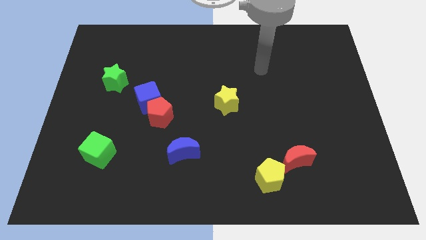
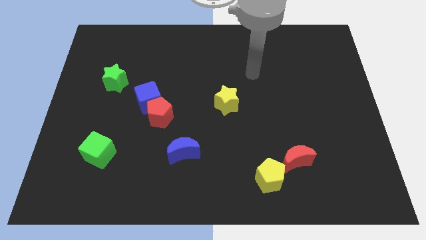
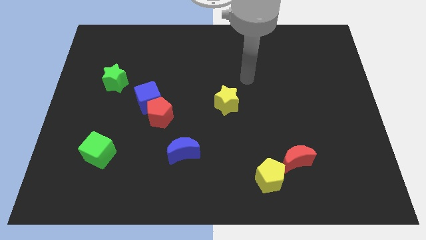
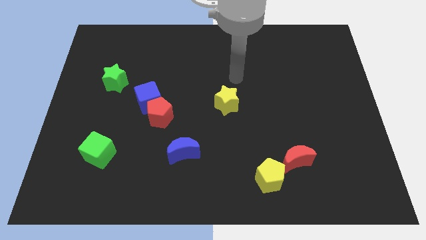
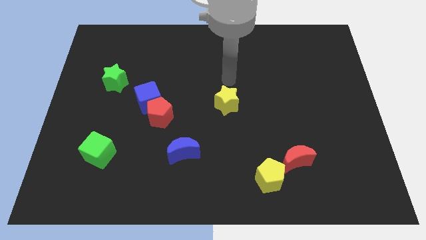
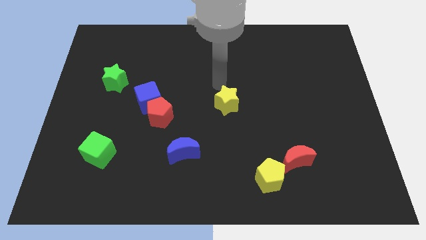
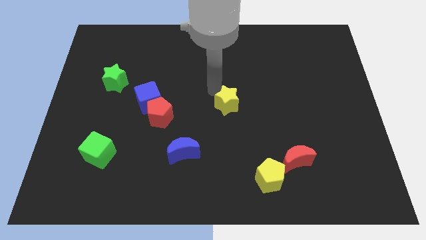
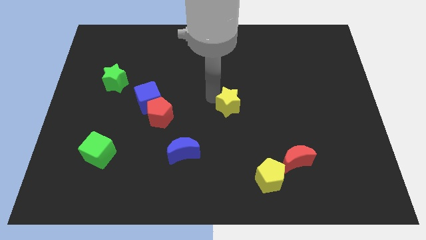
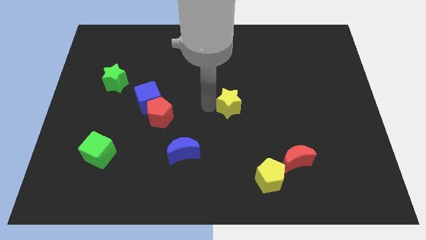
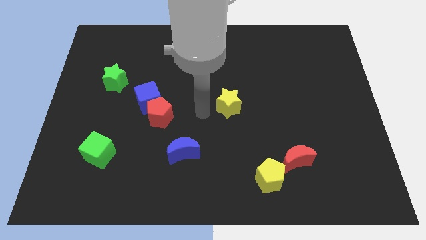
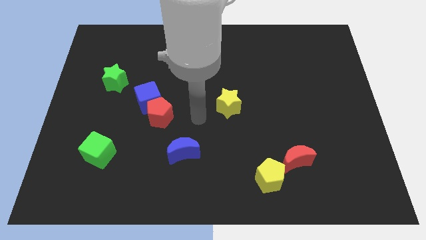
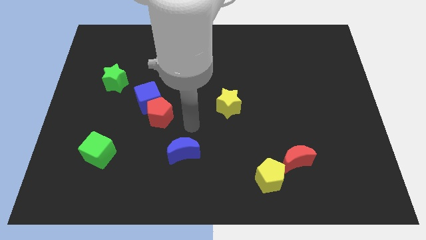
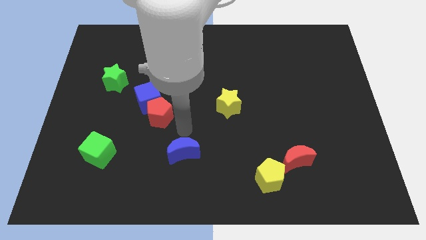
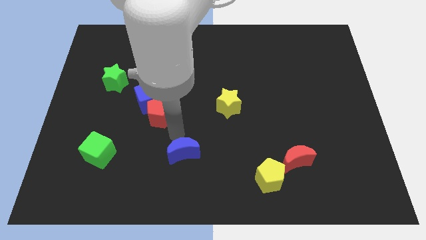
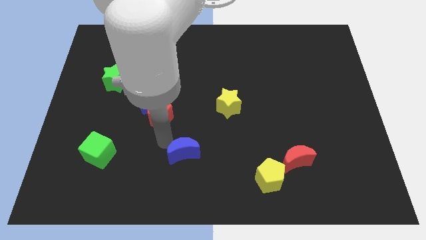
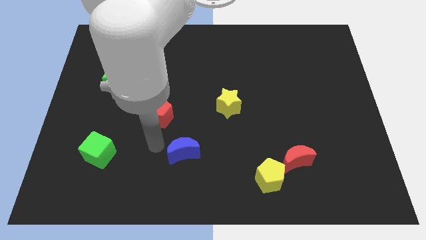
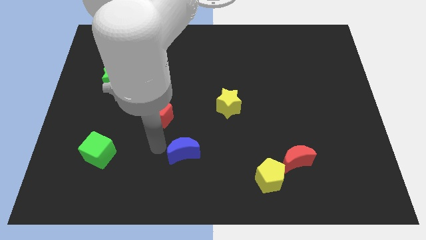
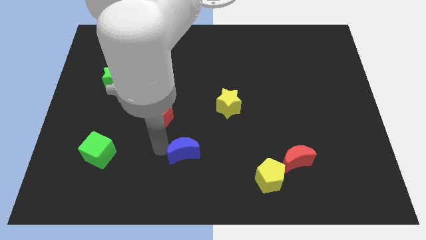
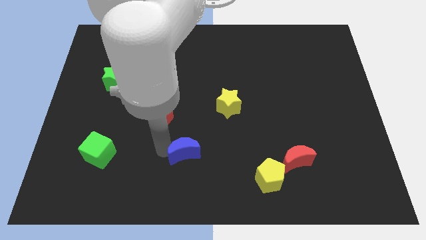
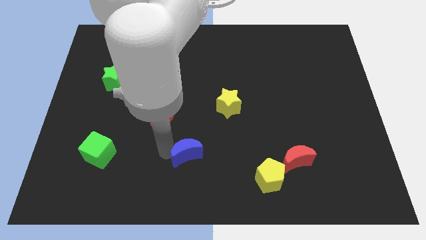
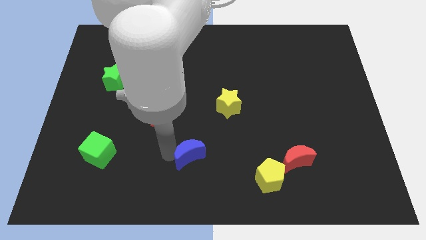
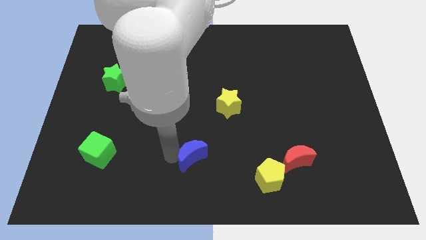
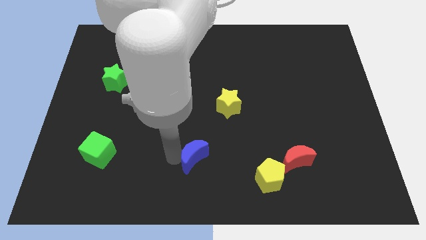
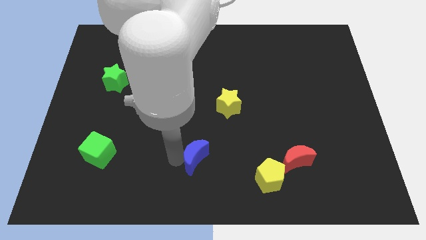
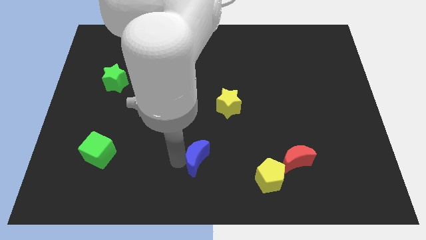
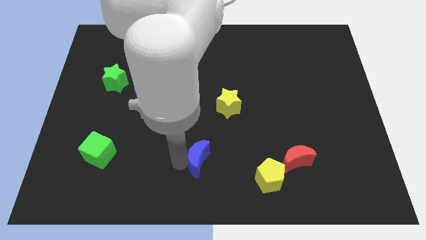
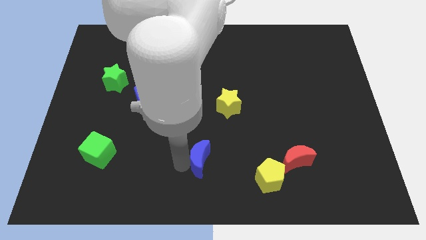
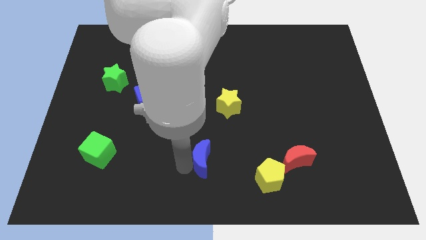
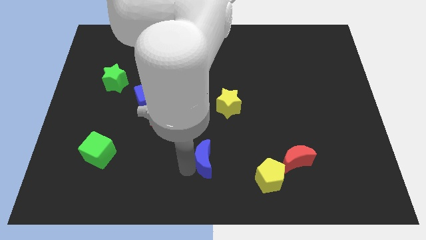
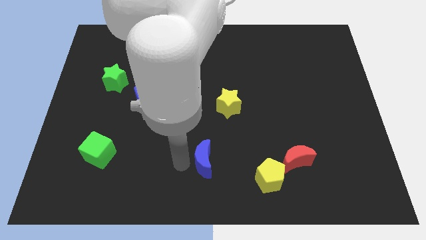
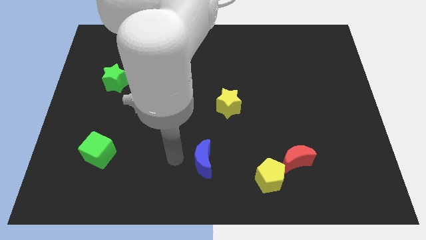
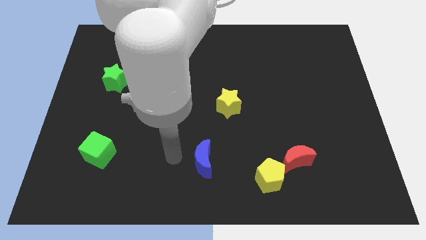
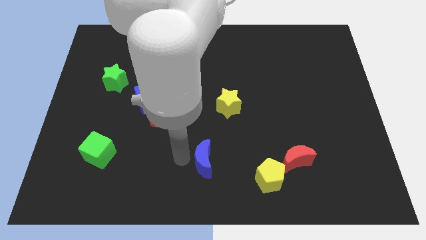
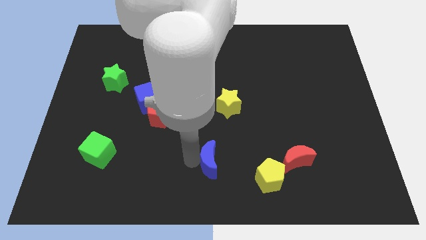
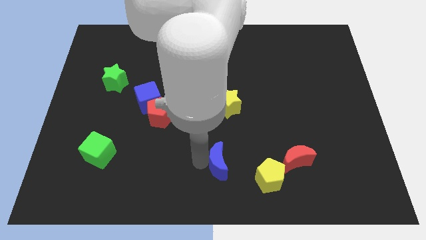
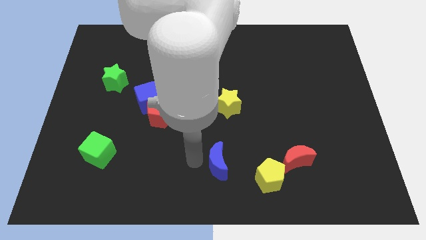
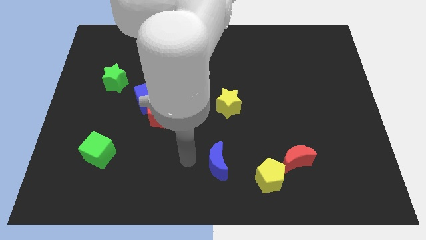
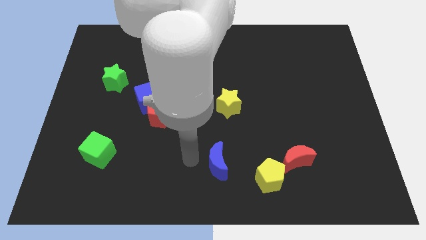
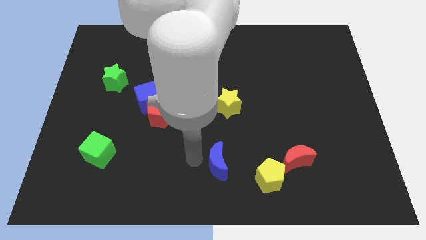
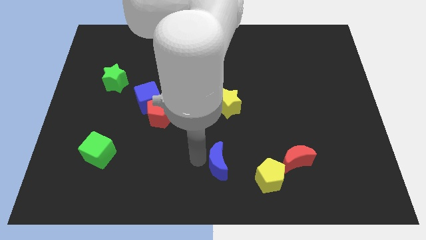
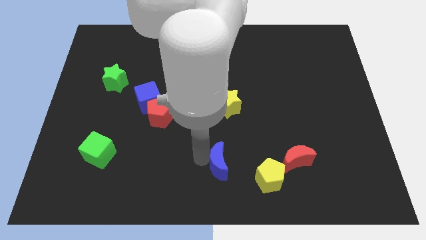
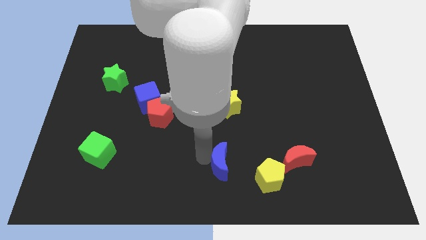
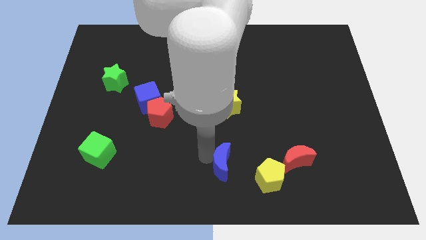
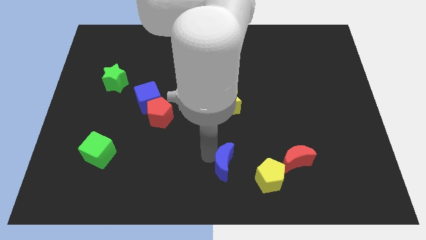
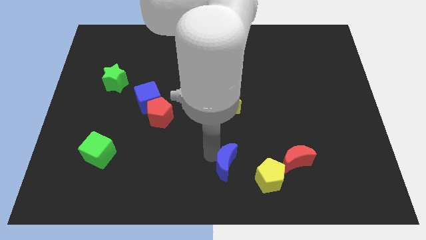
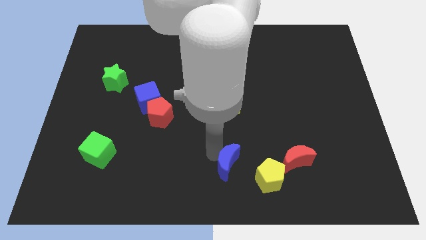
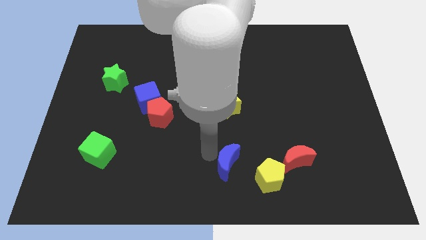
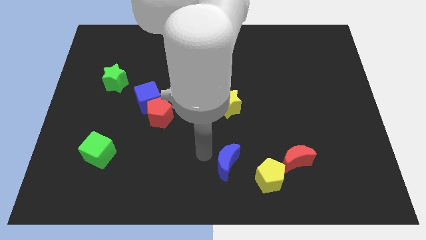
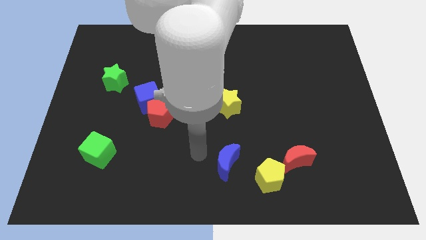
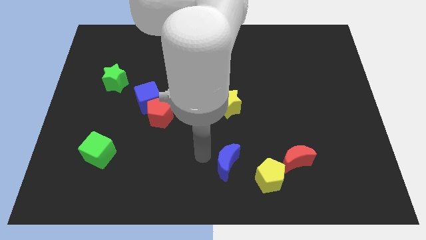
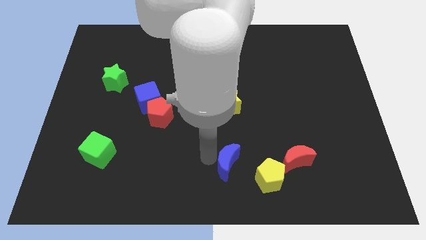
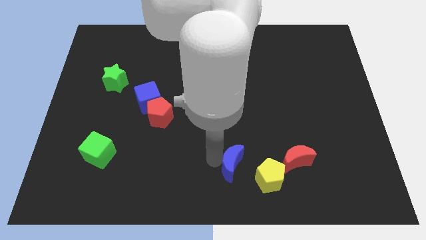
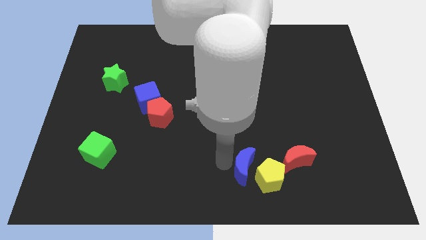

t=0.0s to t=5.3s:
push the blue moon to the yellow pentagon

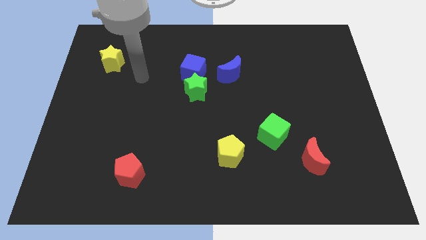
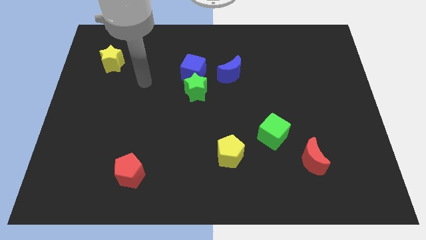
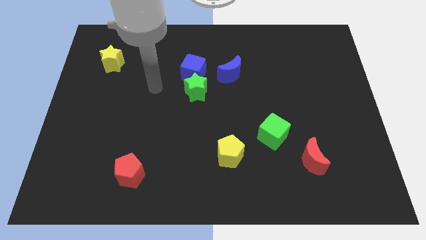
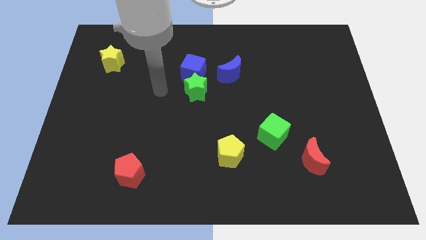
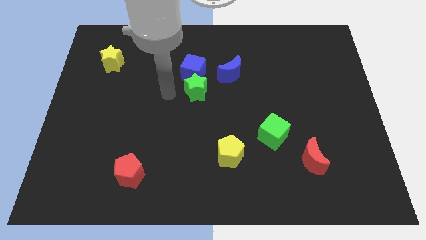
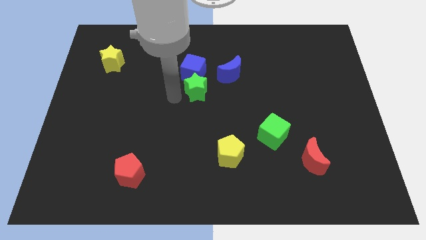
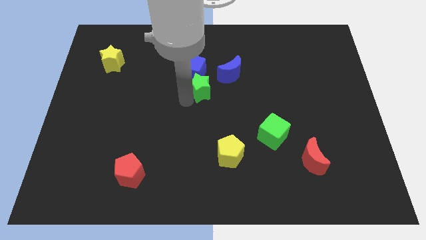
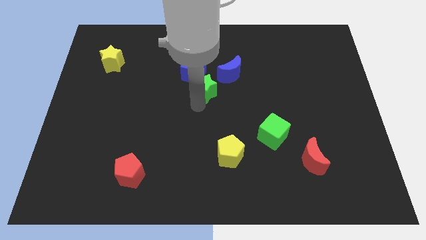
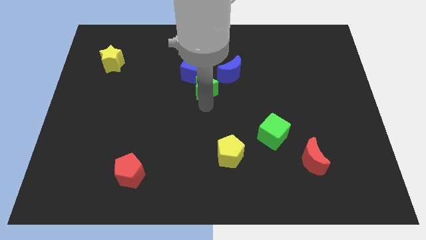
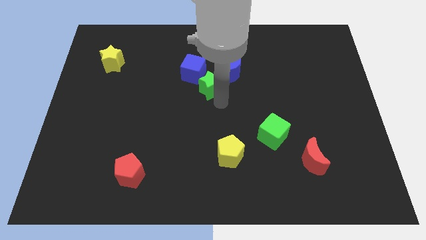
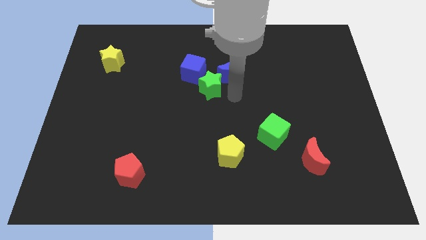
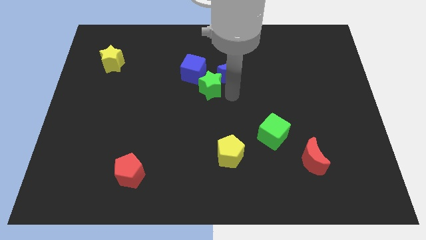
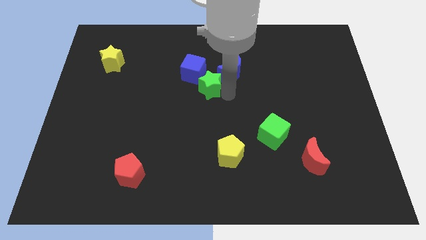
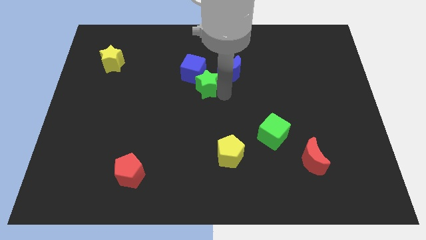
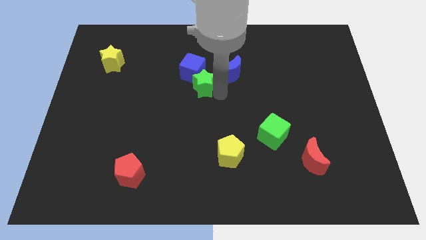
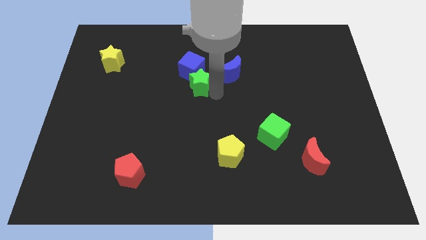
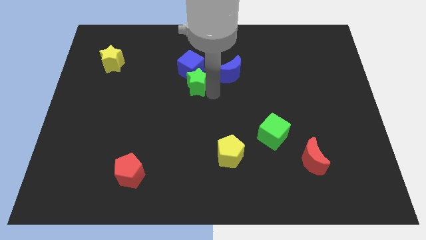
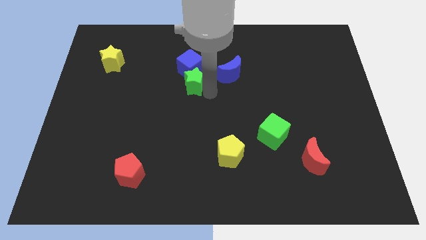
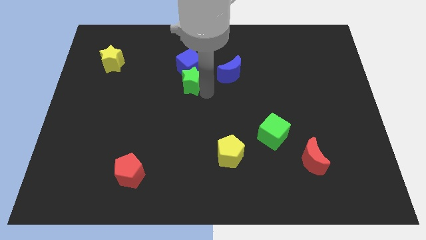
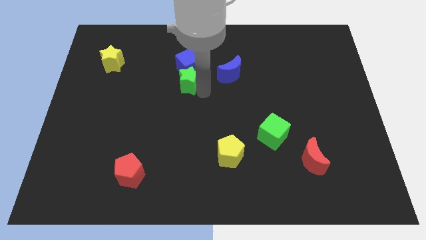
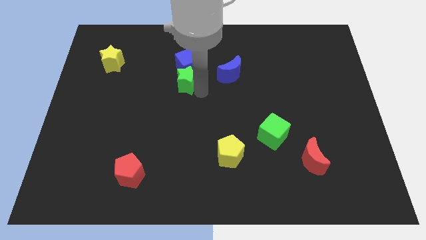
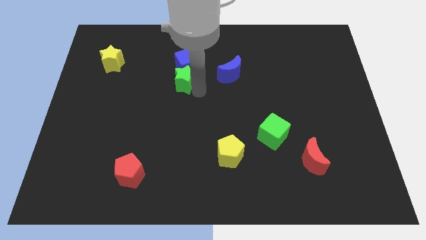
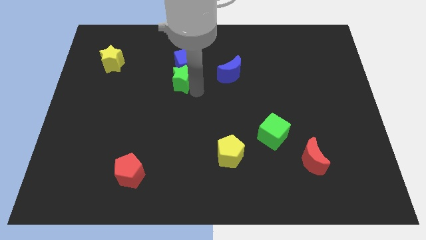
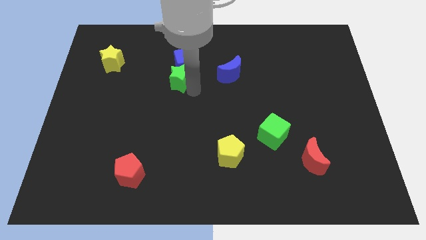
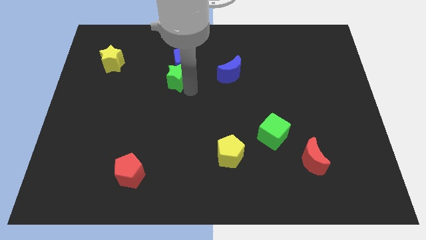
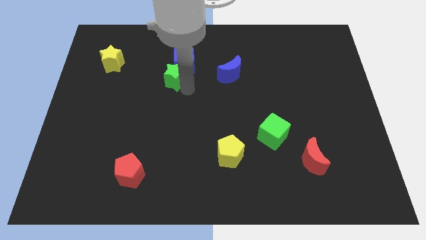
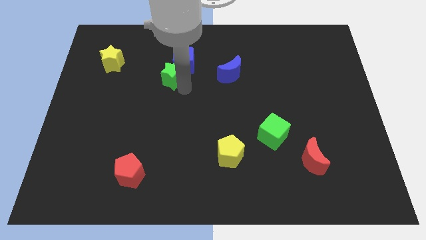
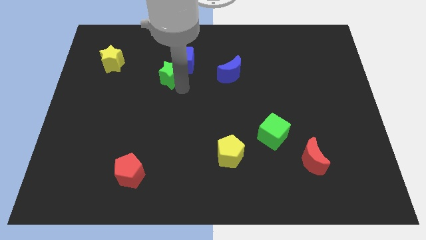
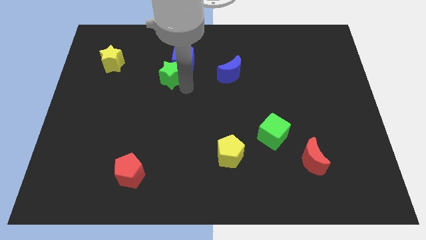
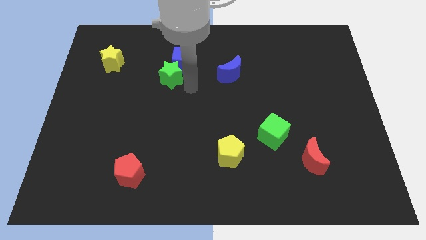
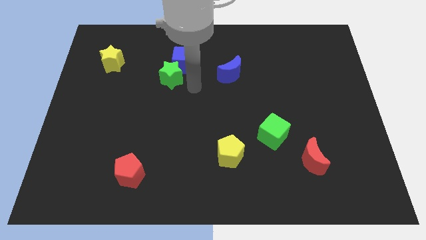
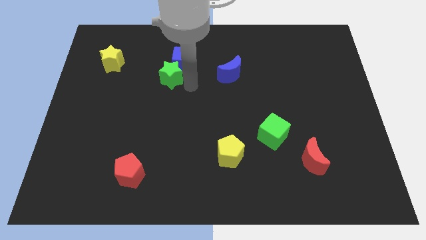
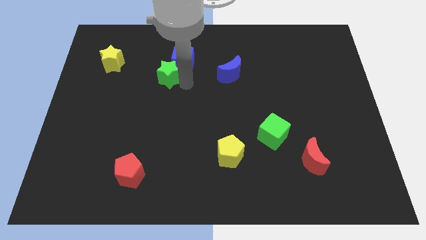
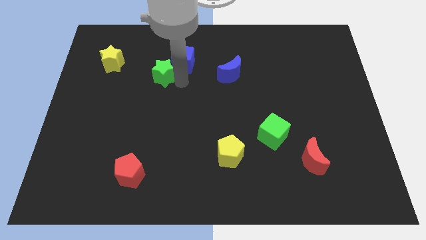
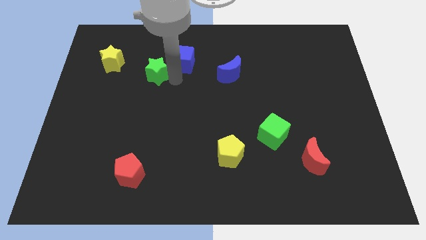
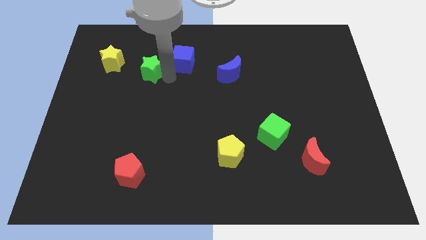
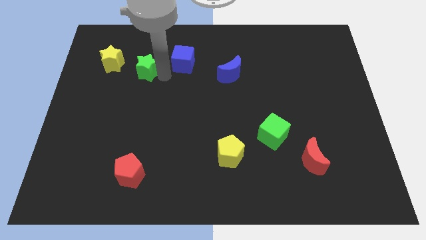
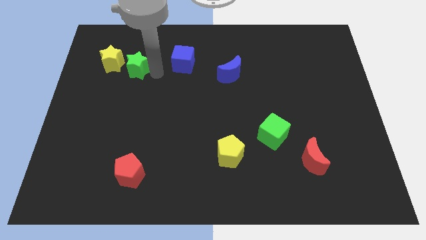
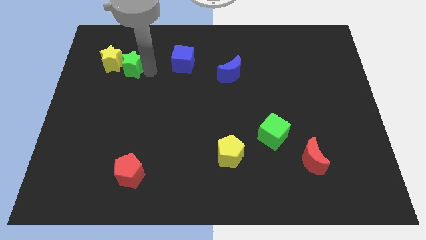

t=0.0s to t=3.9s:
push the green star close to the yellow star
